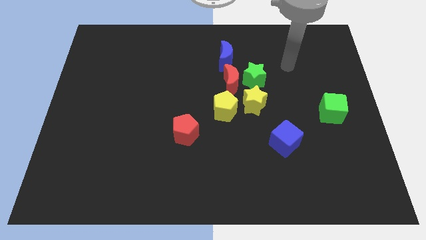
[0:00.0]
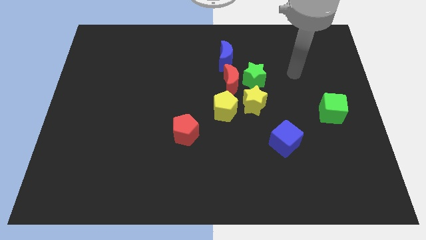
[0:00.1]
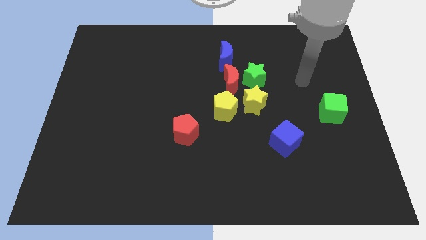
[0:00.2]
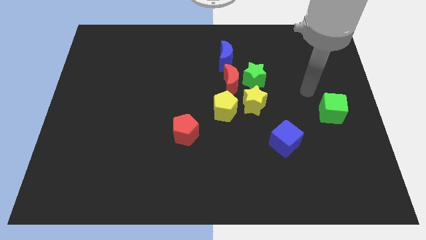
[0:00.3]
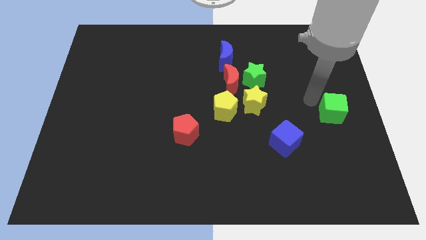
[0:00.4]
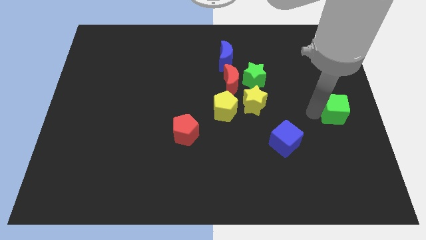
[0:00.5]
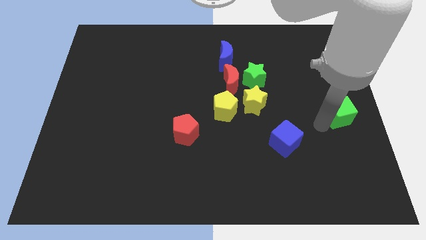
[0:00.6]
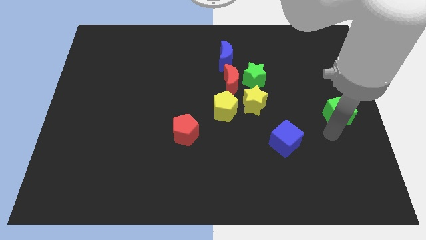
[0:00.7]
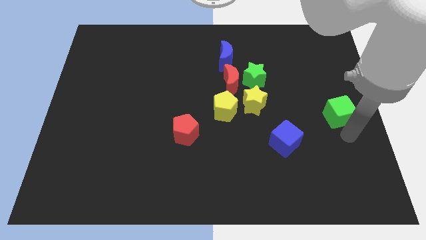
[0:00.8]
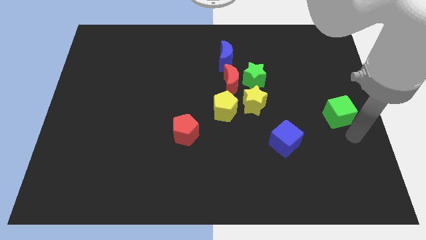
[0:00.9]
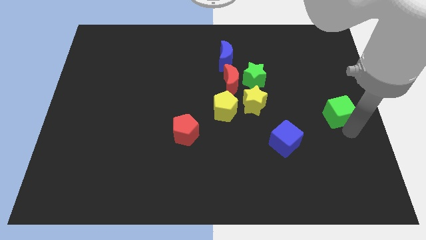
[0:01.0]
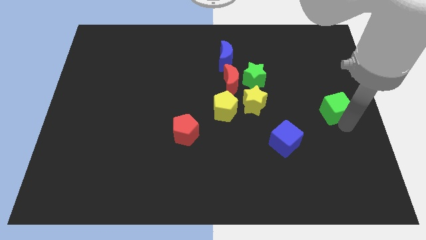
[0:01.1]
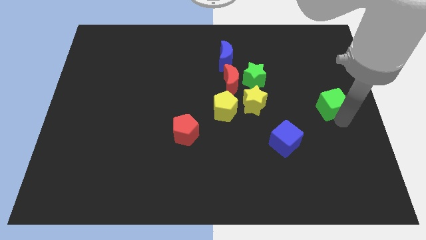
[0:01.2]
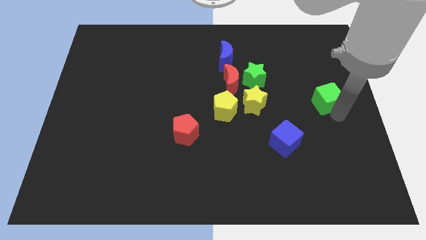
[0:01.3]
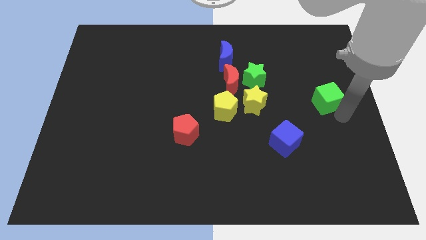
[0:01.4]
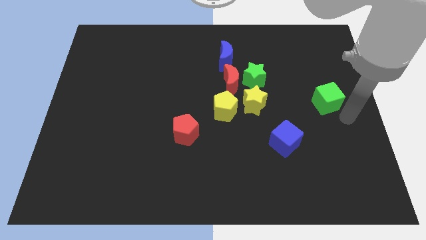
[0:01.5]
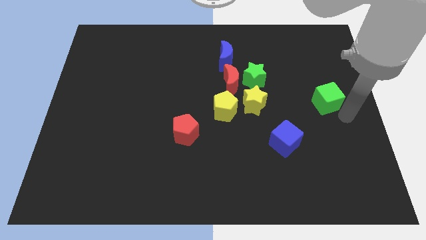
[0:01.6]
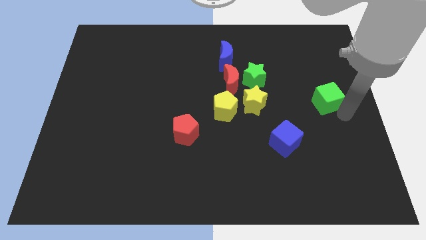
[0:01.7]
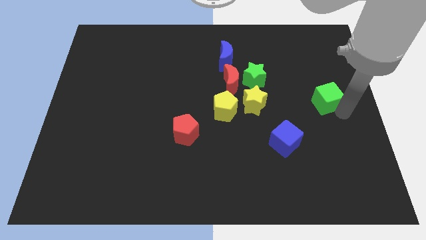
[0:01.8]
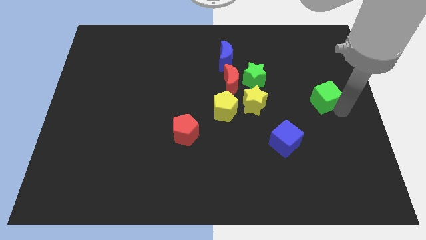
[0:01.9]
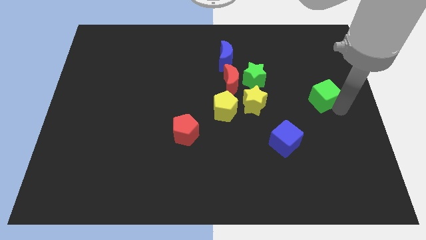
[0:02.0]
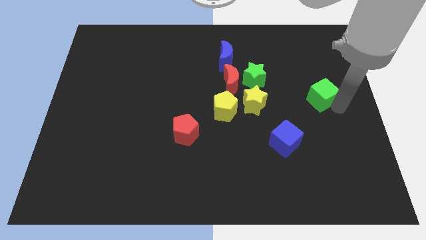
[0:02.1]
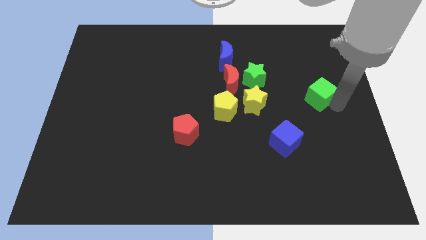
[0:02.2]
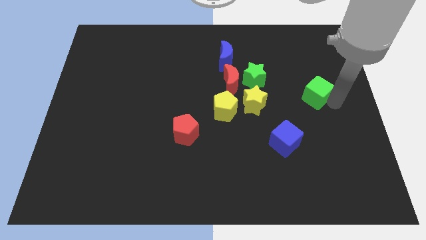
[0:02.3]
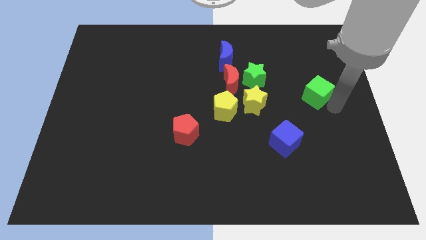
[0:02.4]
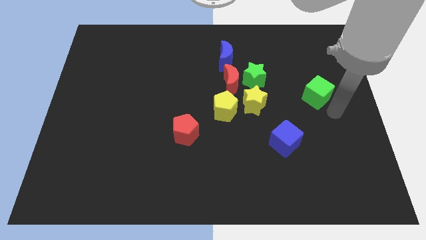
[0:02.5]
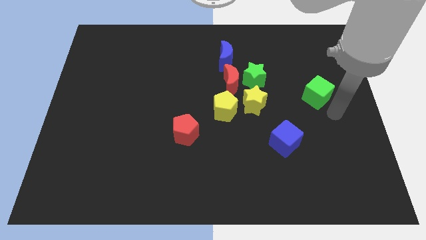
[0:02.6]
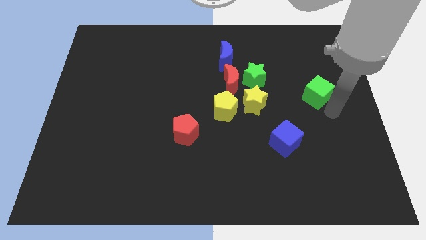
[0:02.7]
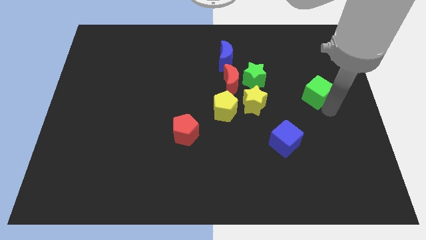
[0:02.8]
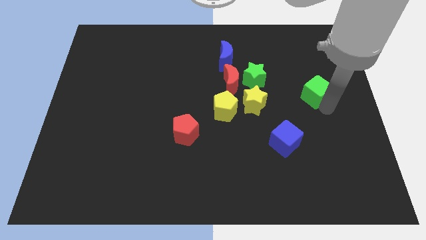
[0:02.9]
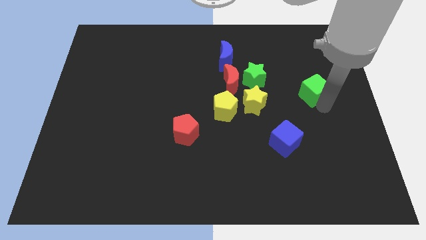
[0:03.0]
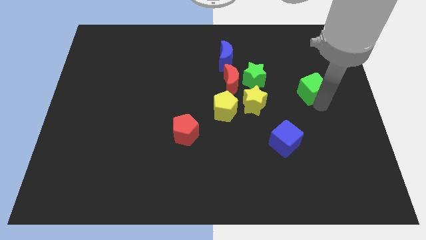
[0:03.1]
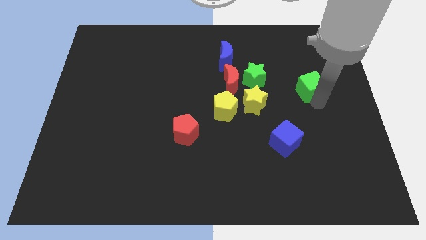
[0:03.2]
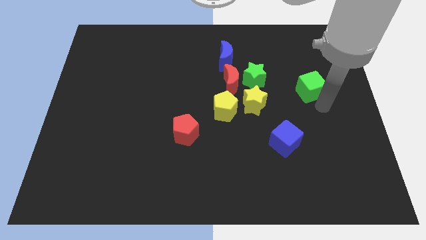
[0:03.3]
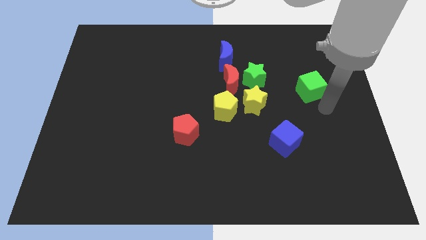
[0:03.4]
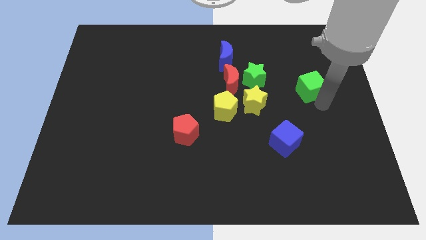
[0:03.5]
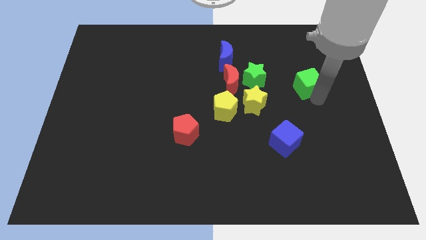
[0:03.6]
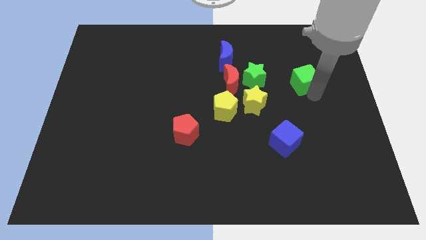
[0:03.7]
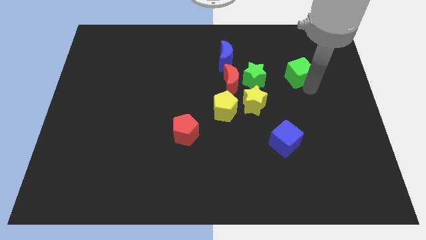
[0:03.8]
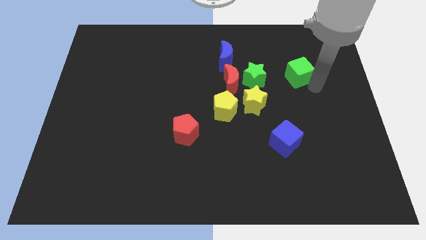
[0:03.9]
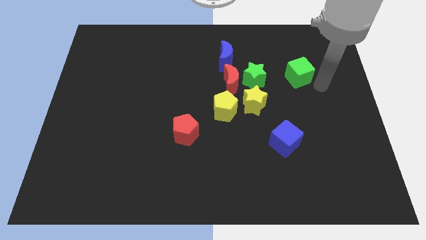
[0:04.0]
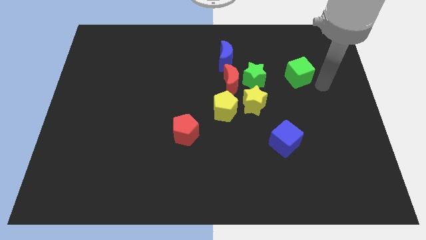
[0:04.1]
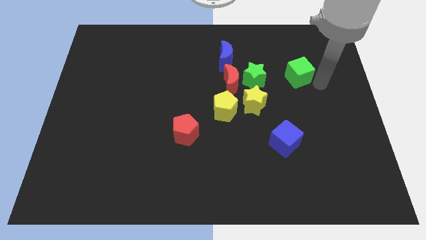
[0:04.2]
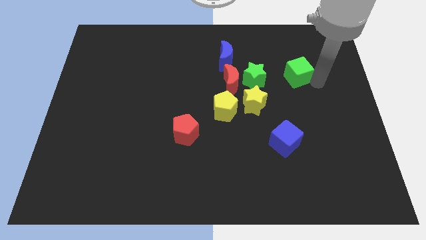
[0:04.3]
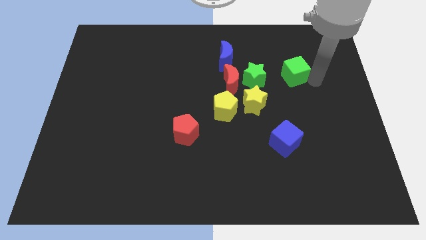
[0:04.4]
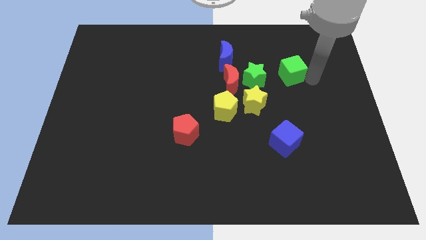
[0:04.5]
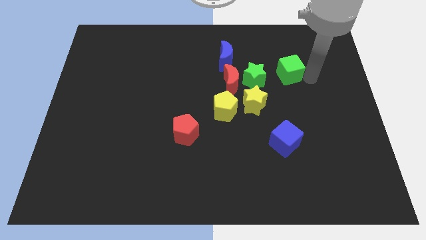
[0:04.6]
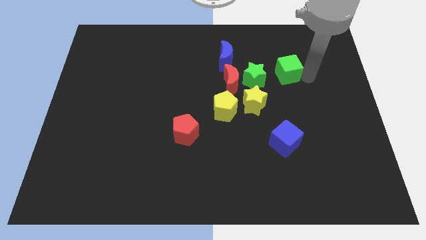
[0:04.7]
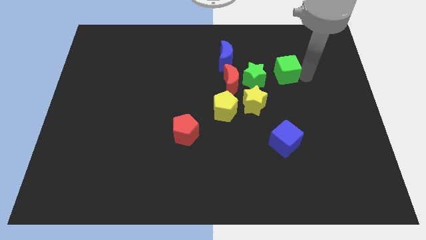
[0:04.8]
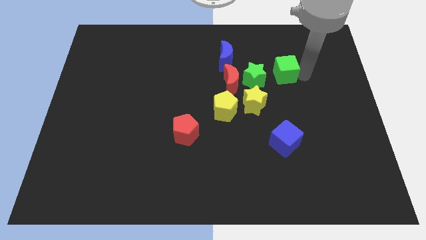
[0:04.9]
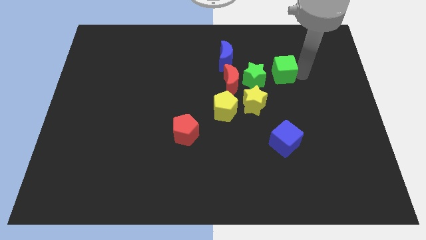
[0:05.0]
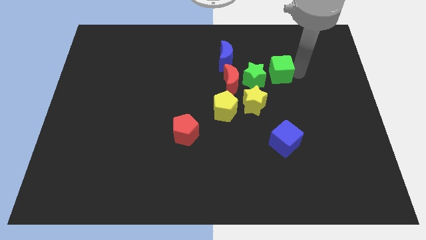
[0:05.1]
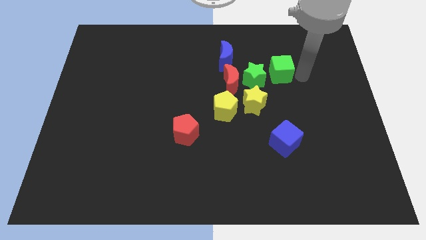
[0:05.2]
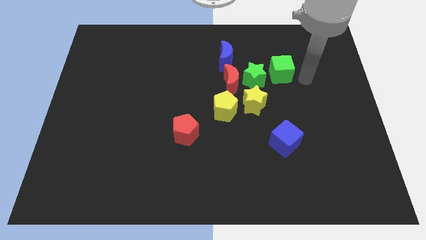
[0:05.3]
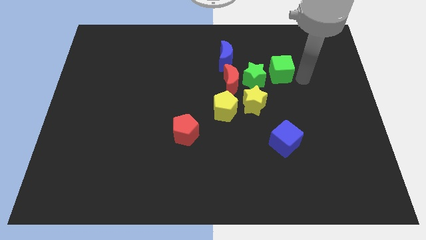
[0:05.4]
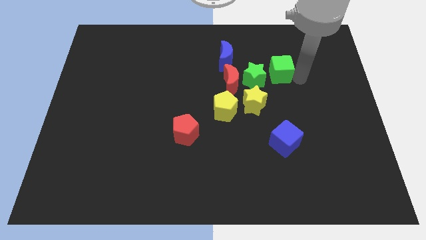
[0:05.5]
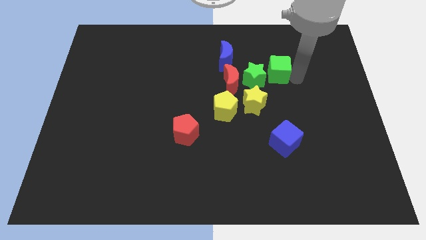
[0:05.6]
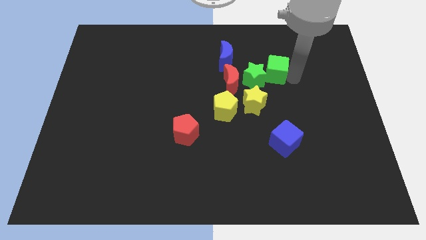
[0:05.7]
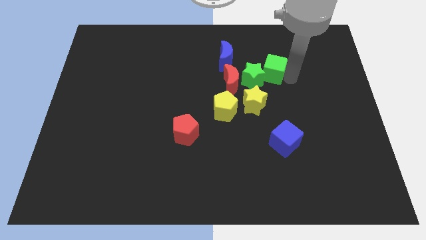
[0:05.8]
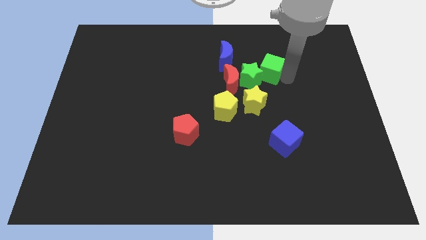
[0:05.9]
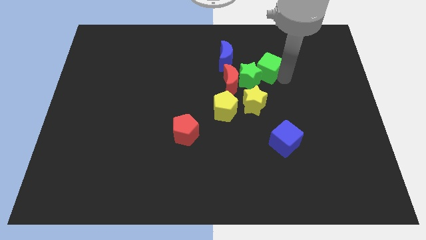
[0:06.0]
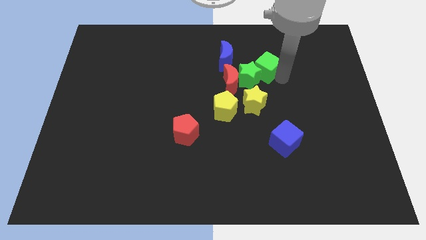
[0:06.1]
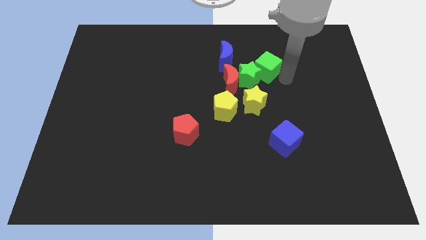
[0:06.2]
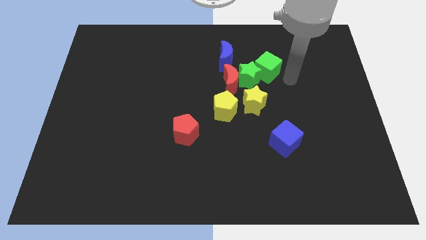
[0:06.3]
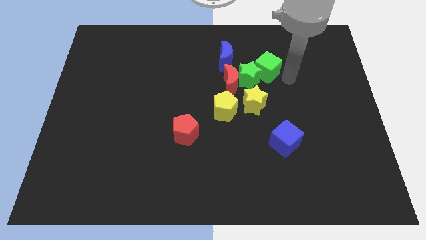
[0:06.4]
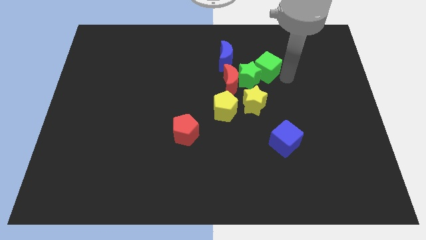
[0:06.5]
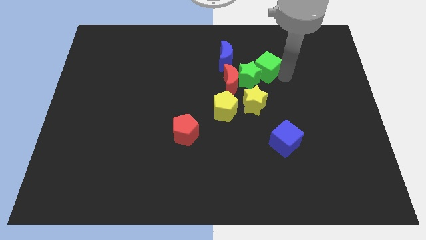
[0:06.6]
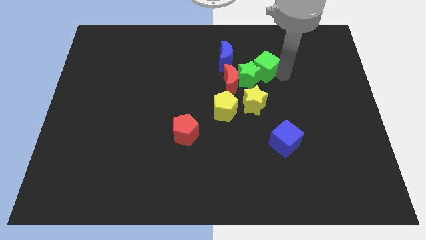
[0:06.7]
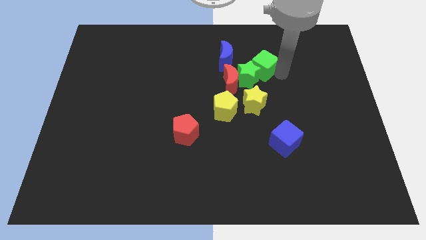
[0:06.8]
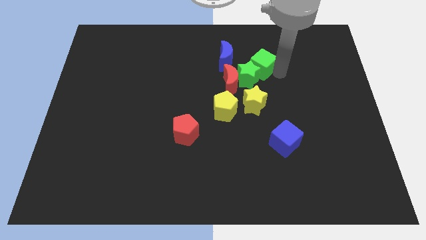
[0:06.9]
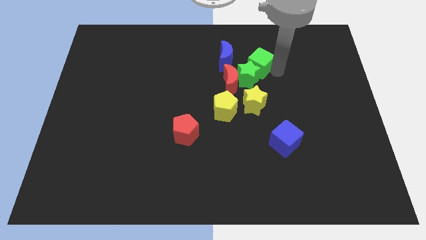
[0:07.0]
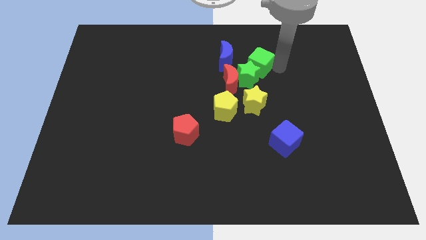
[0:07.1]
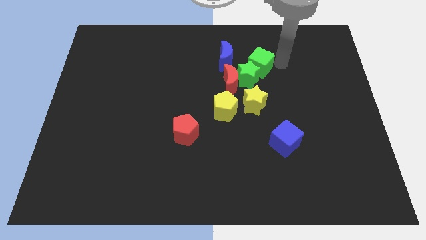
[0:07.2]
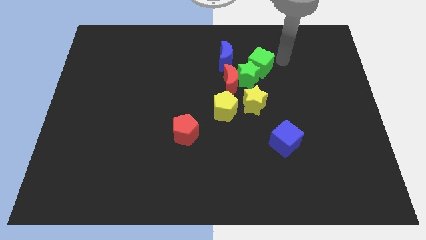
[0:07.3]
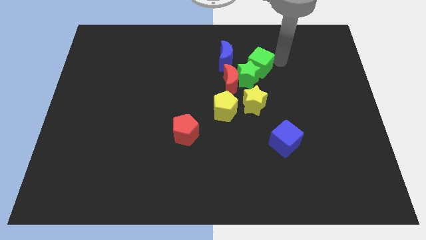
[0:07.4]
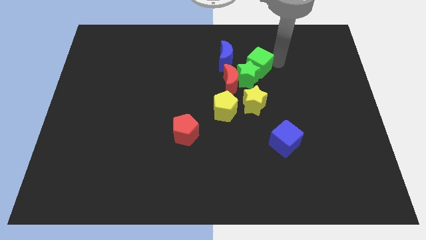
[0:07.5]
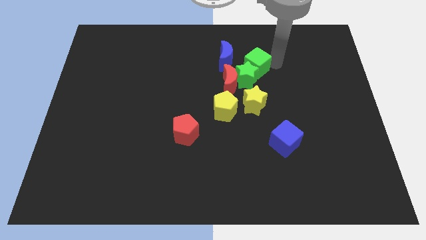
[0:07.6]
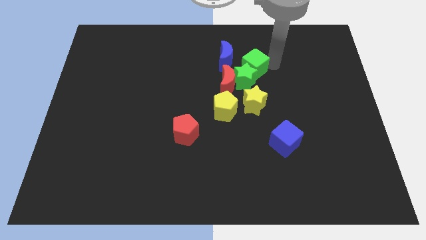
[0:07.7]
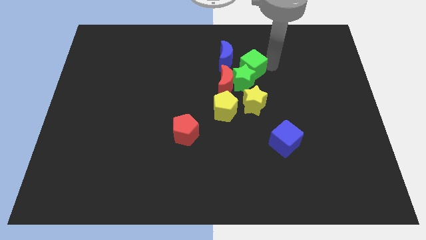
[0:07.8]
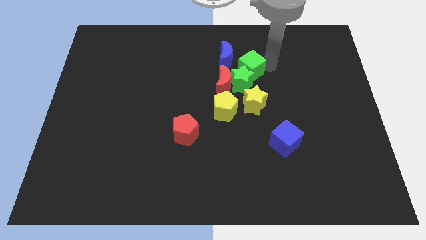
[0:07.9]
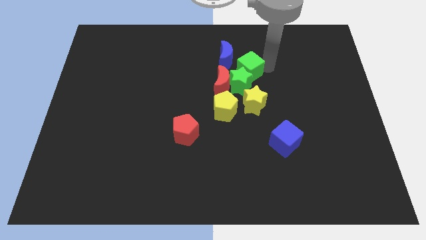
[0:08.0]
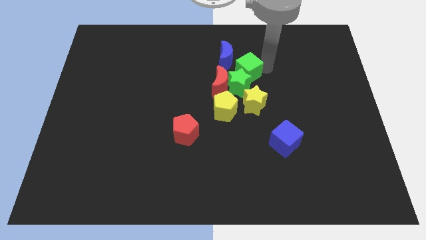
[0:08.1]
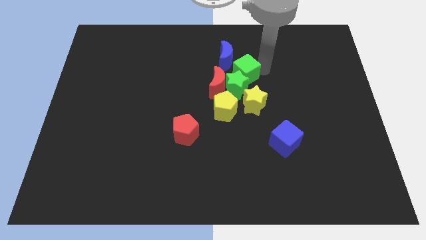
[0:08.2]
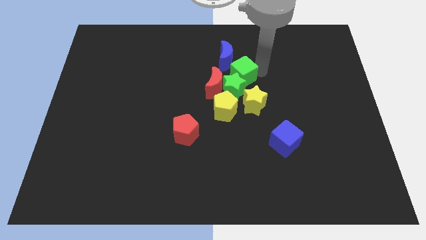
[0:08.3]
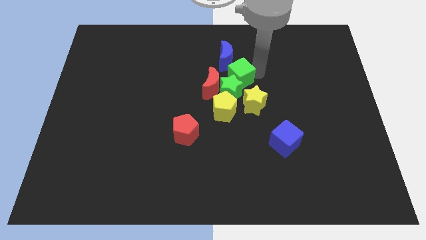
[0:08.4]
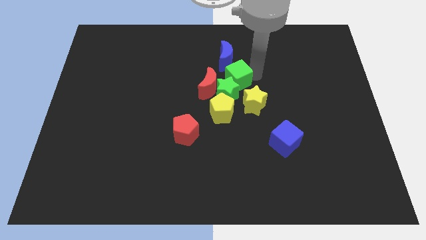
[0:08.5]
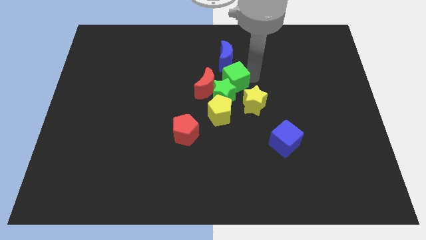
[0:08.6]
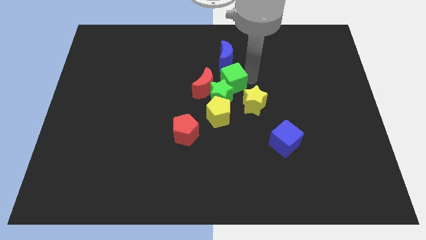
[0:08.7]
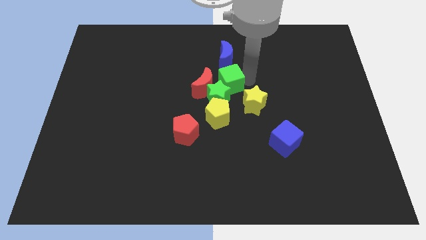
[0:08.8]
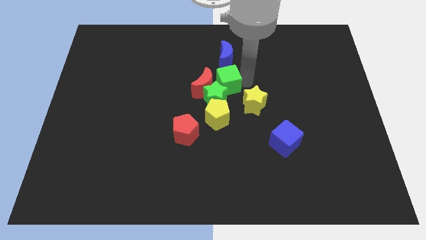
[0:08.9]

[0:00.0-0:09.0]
move the green cube next to the red moon
